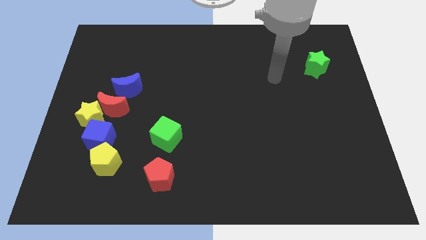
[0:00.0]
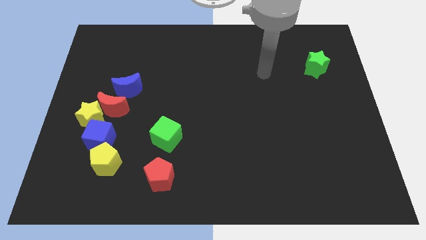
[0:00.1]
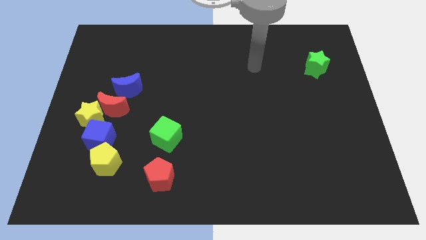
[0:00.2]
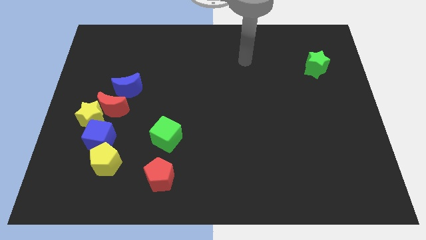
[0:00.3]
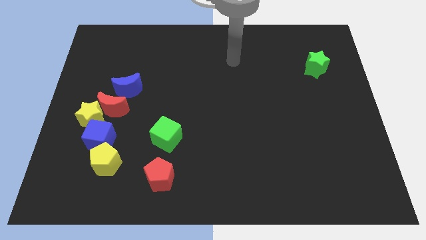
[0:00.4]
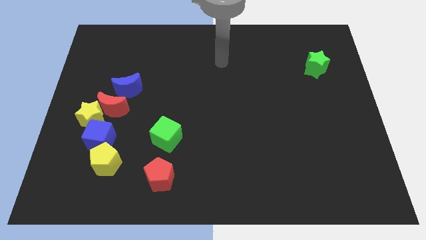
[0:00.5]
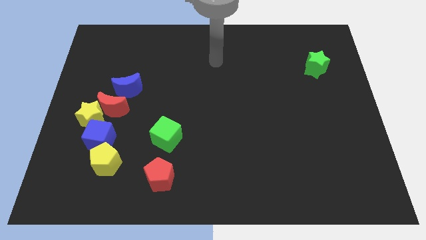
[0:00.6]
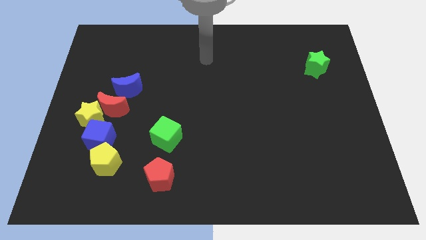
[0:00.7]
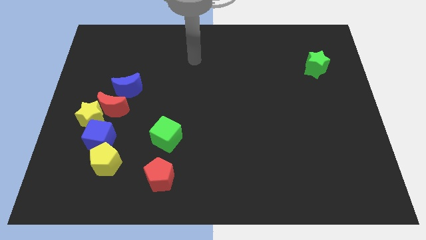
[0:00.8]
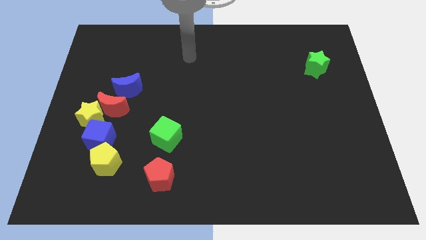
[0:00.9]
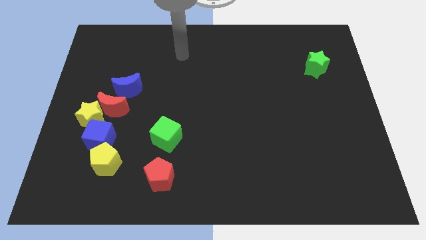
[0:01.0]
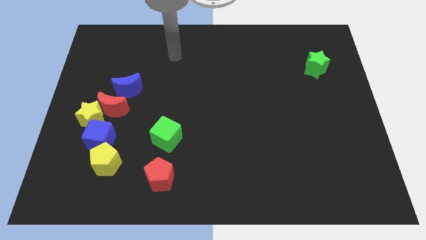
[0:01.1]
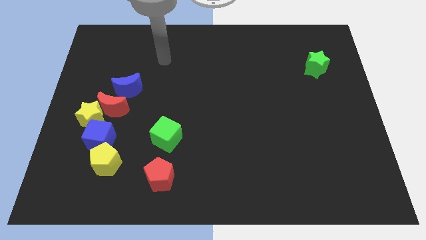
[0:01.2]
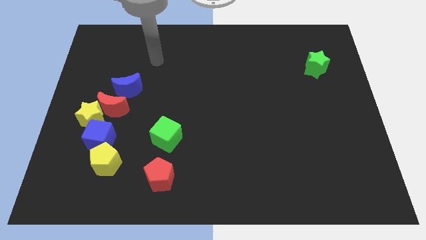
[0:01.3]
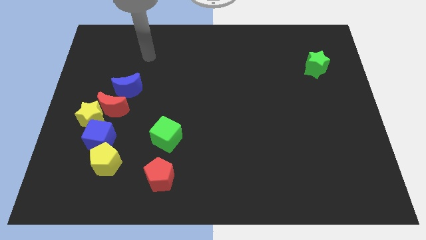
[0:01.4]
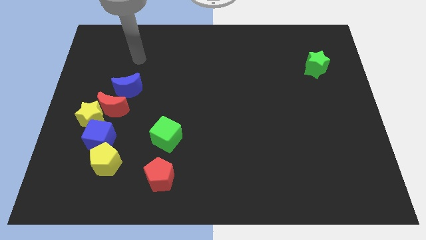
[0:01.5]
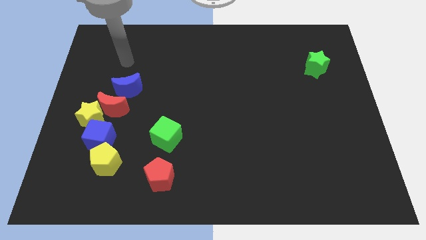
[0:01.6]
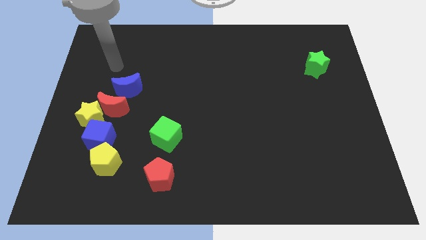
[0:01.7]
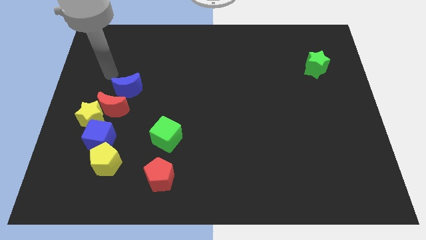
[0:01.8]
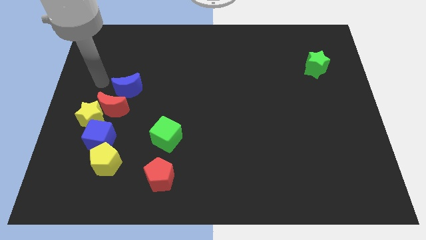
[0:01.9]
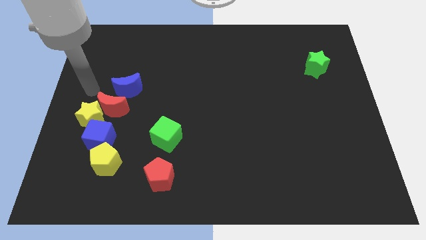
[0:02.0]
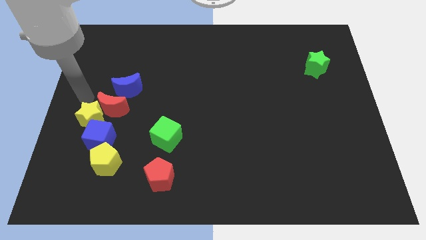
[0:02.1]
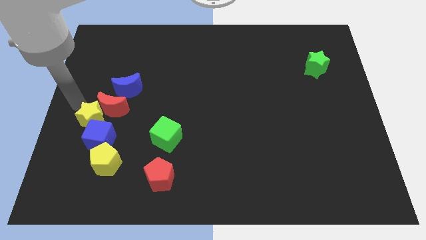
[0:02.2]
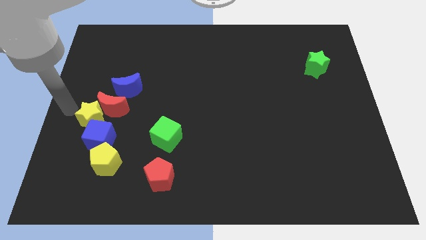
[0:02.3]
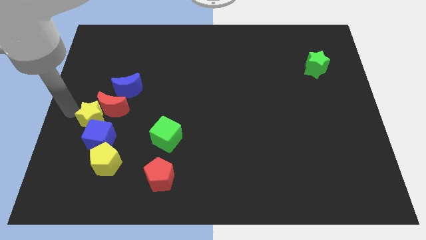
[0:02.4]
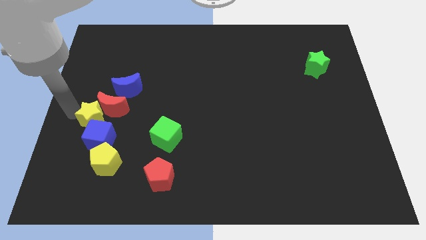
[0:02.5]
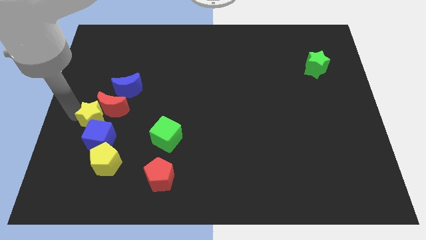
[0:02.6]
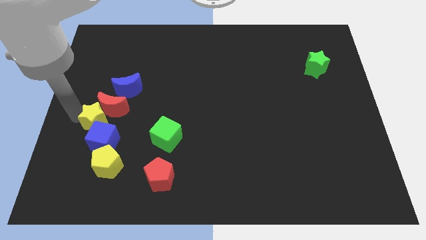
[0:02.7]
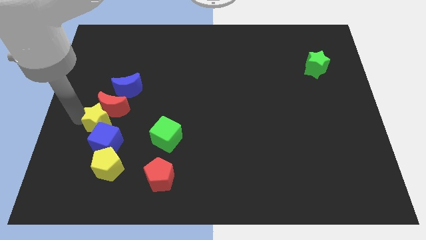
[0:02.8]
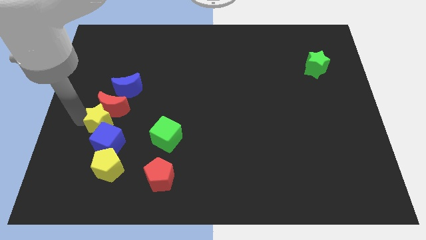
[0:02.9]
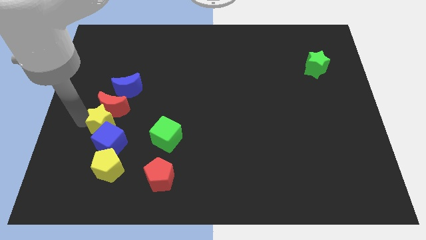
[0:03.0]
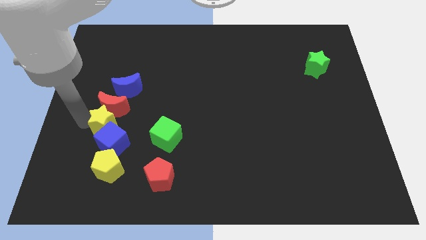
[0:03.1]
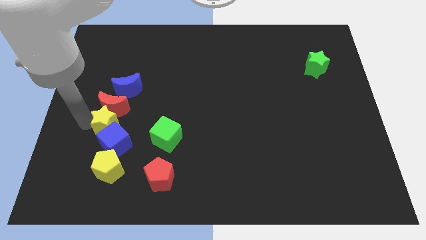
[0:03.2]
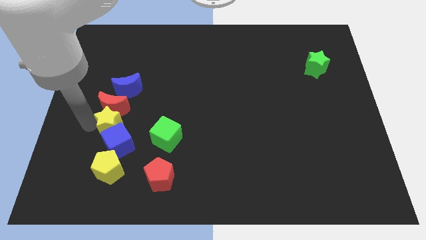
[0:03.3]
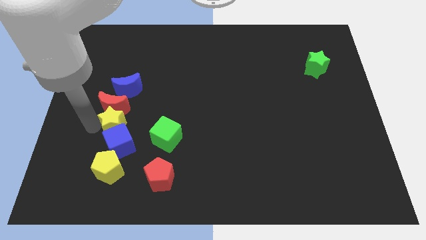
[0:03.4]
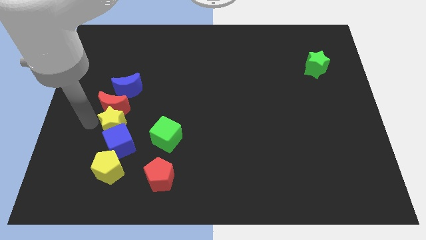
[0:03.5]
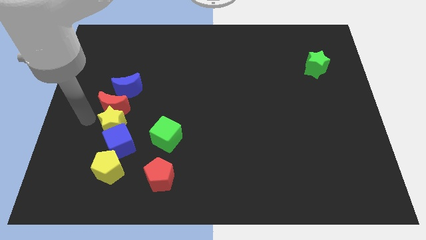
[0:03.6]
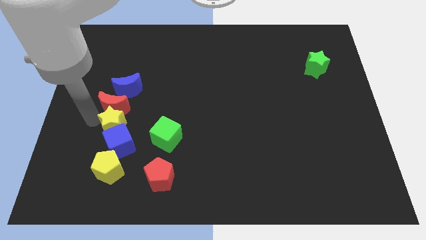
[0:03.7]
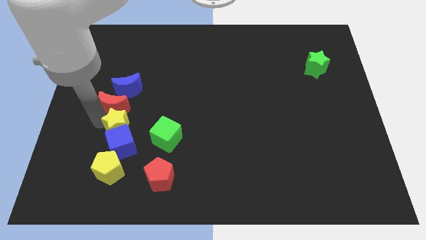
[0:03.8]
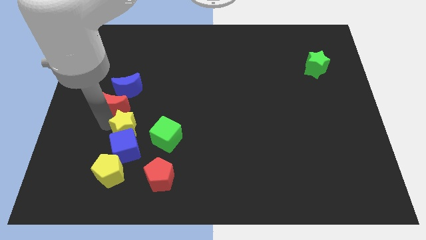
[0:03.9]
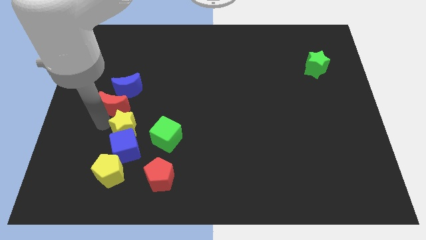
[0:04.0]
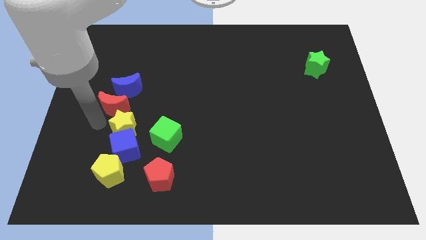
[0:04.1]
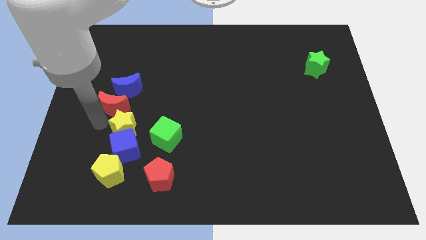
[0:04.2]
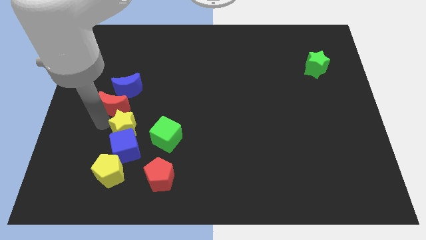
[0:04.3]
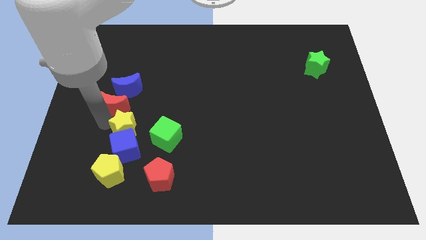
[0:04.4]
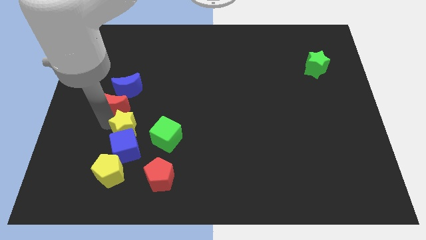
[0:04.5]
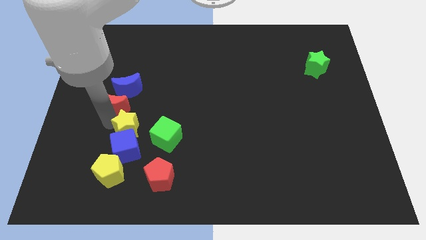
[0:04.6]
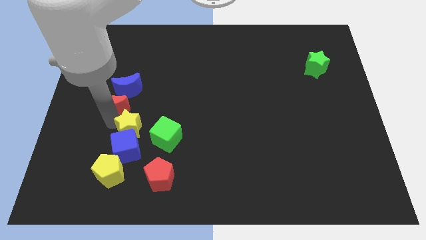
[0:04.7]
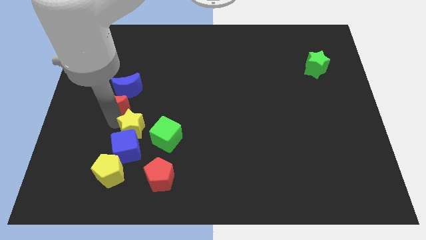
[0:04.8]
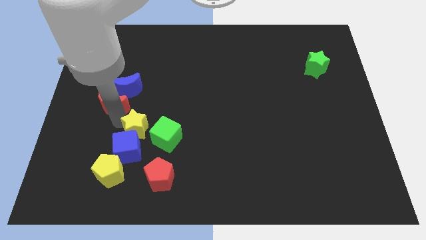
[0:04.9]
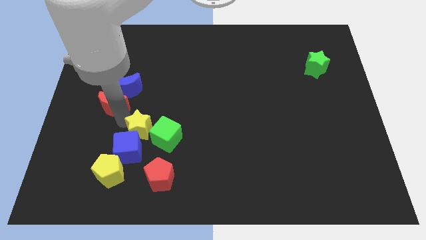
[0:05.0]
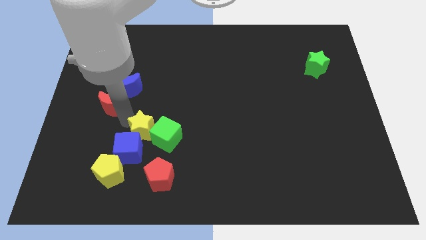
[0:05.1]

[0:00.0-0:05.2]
put the yellow star close to the green cube

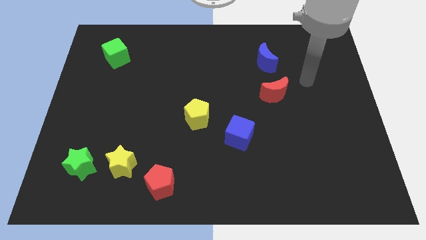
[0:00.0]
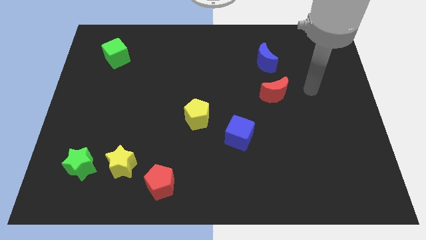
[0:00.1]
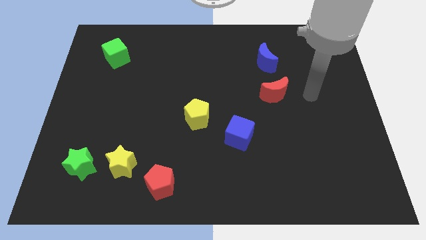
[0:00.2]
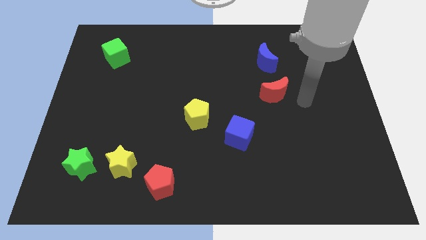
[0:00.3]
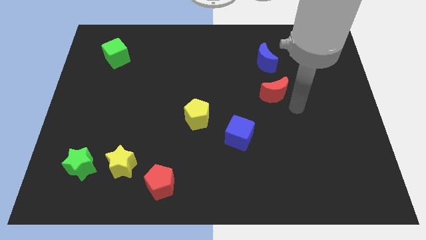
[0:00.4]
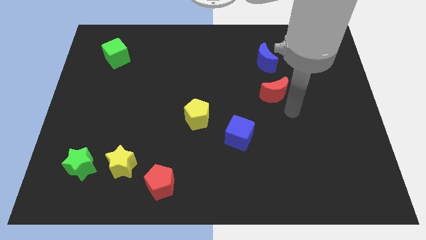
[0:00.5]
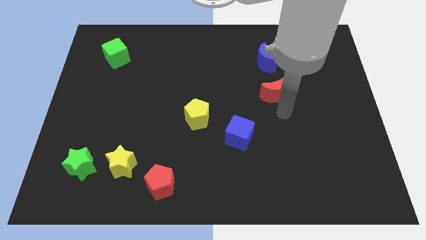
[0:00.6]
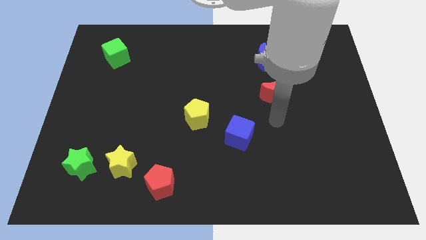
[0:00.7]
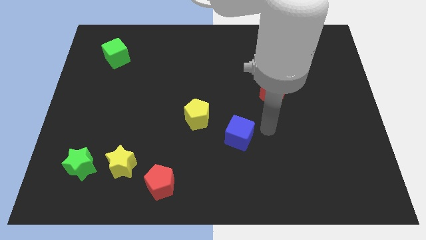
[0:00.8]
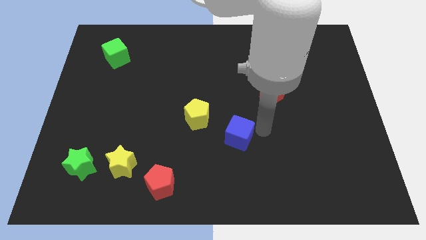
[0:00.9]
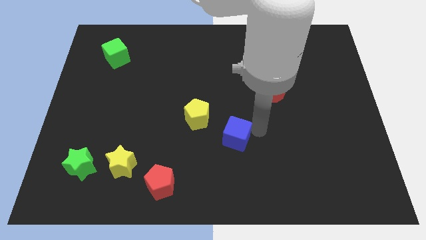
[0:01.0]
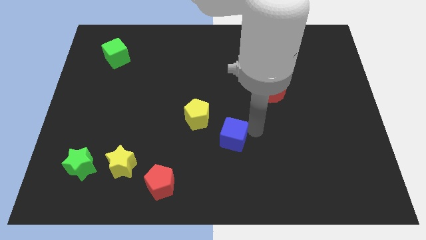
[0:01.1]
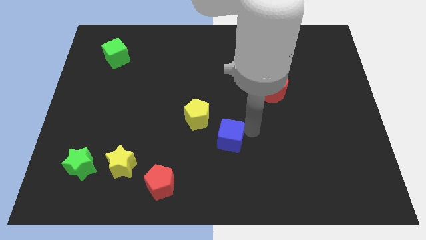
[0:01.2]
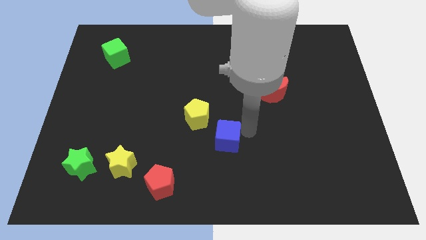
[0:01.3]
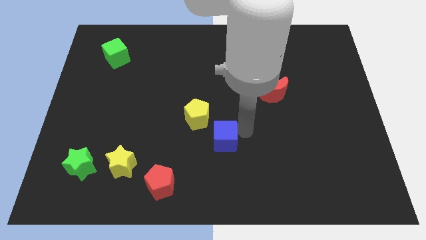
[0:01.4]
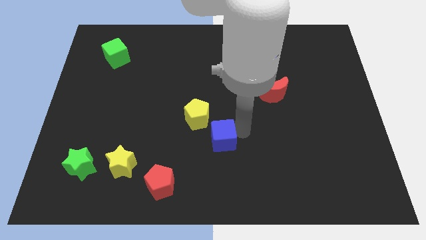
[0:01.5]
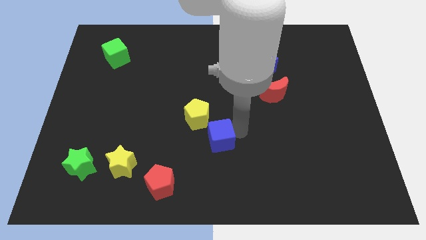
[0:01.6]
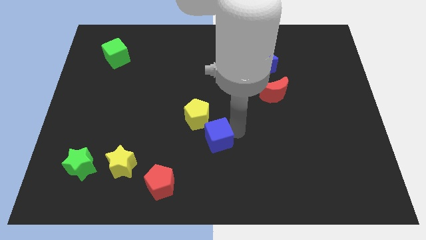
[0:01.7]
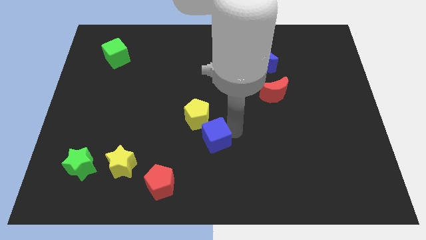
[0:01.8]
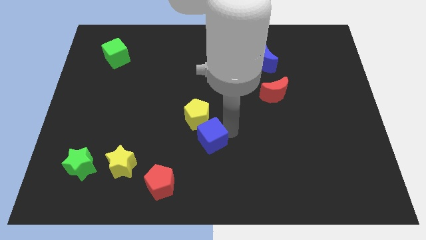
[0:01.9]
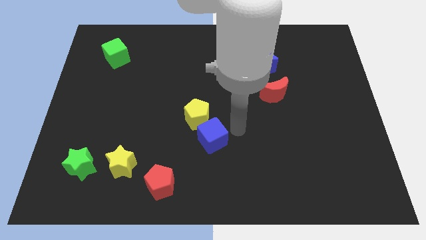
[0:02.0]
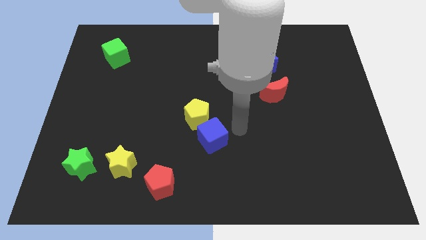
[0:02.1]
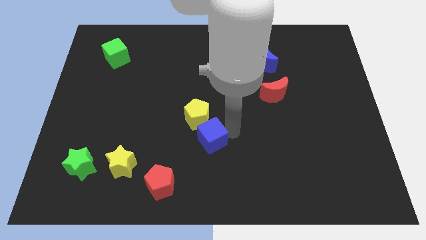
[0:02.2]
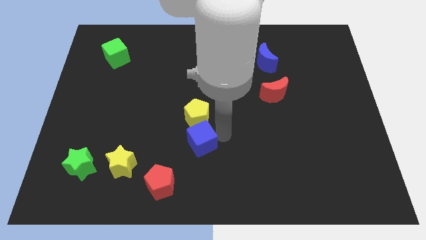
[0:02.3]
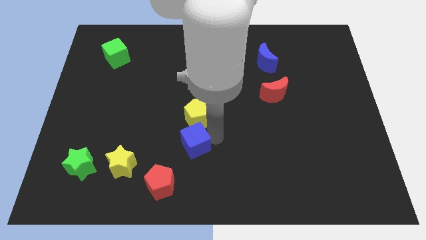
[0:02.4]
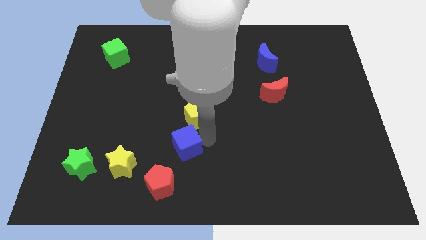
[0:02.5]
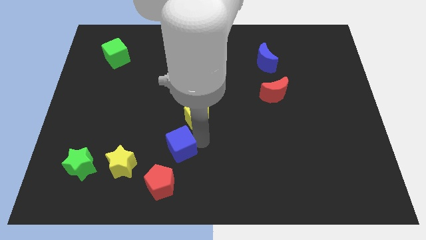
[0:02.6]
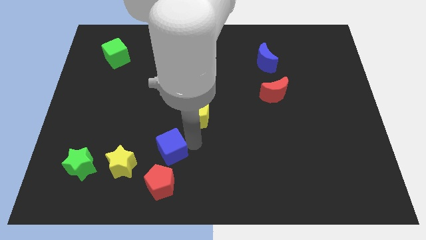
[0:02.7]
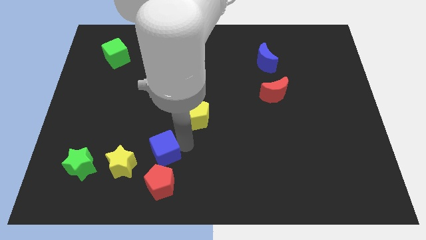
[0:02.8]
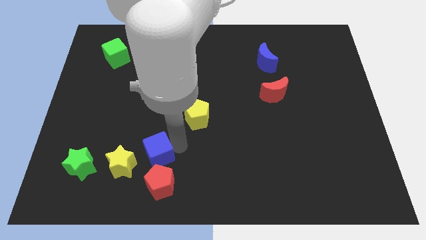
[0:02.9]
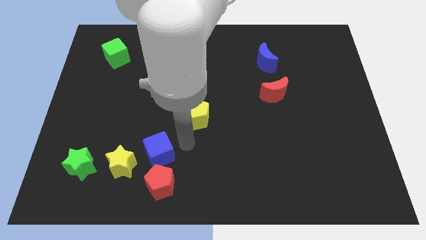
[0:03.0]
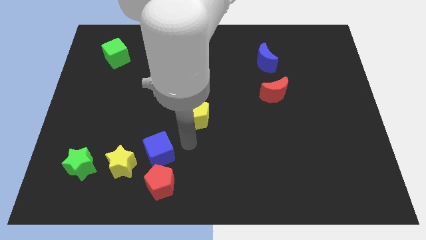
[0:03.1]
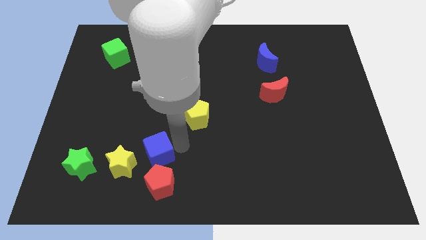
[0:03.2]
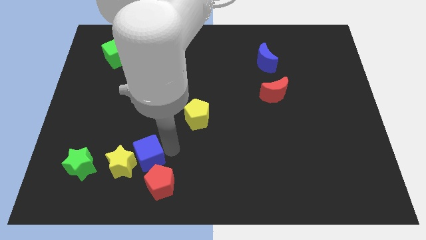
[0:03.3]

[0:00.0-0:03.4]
push the blue cube towards the yellow star
